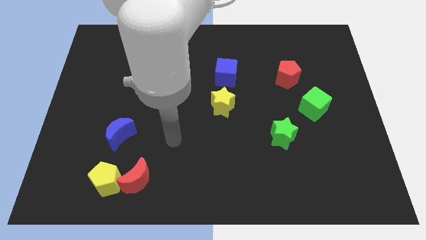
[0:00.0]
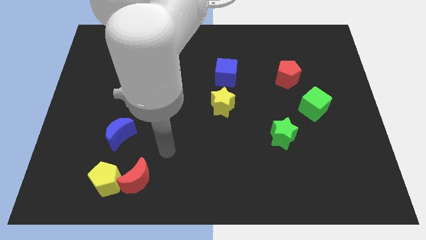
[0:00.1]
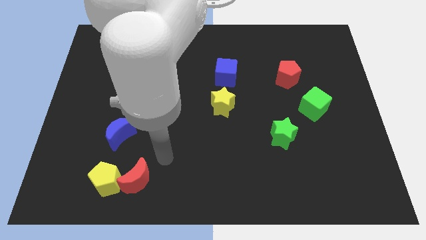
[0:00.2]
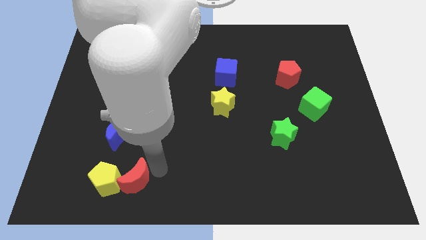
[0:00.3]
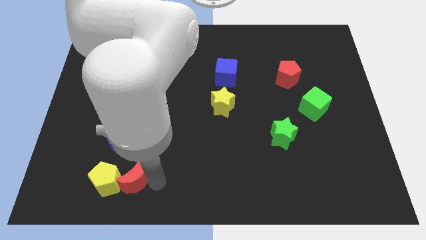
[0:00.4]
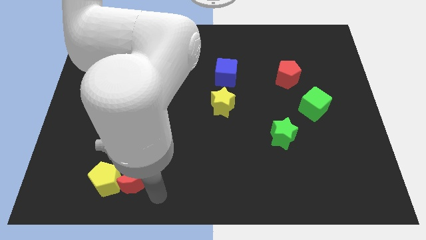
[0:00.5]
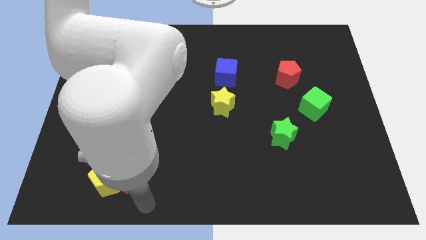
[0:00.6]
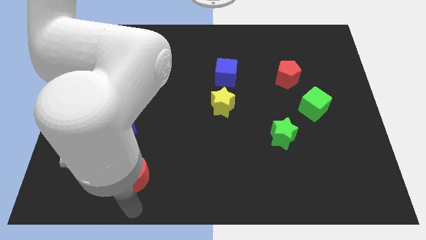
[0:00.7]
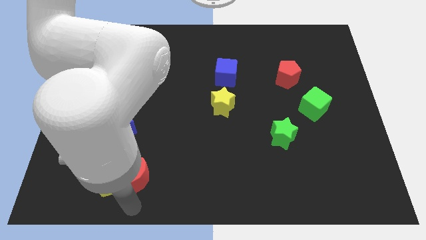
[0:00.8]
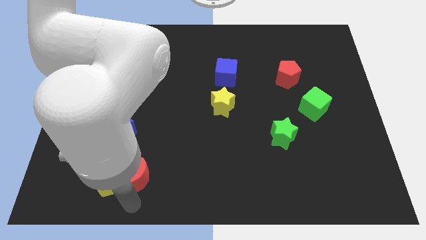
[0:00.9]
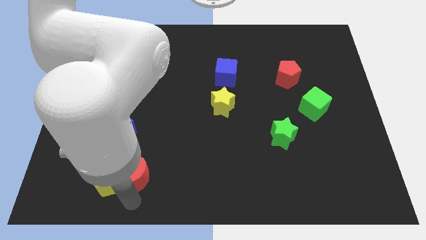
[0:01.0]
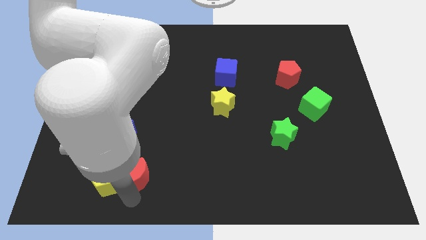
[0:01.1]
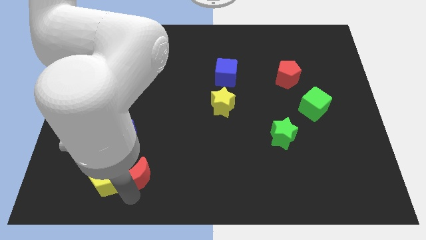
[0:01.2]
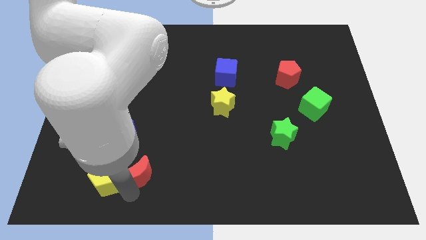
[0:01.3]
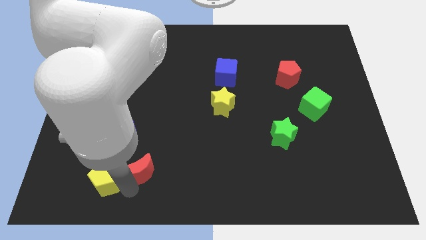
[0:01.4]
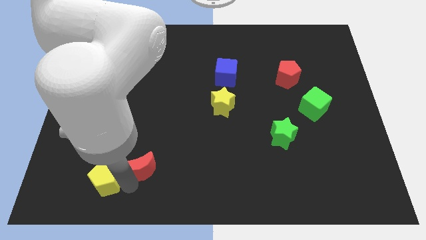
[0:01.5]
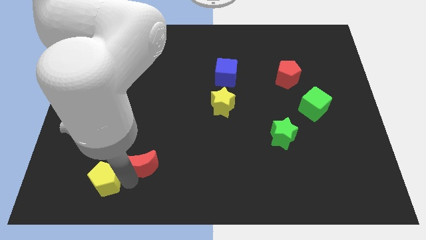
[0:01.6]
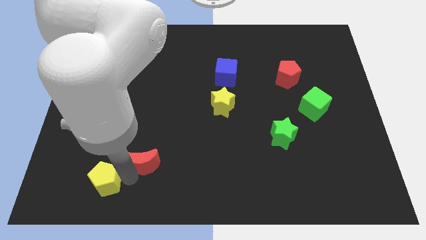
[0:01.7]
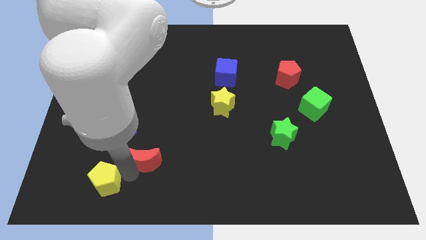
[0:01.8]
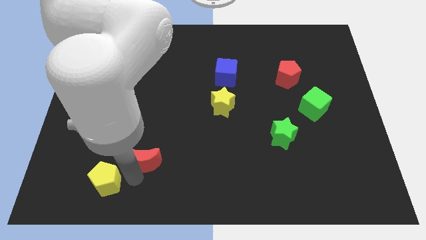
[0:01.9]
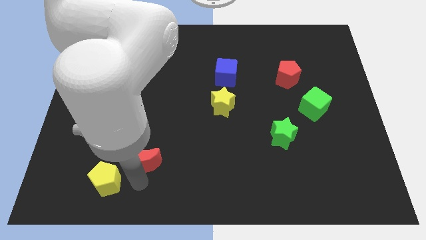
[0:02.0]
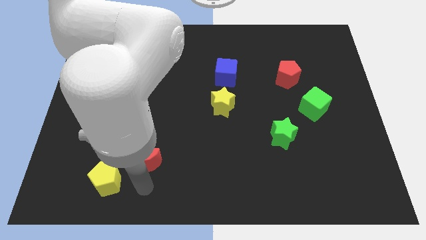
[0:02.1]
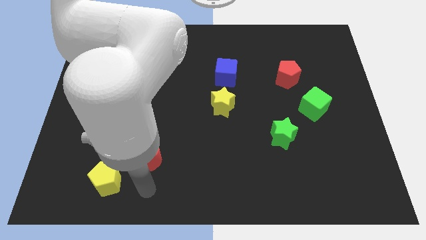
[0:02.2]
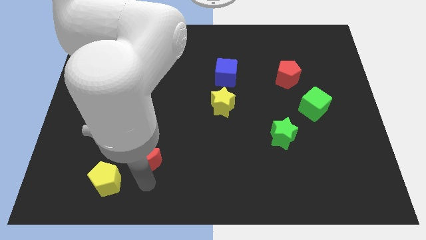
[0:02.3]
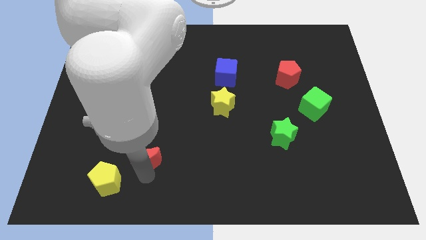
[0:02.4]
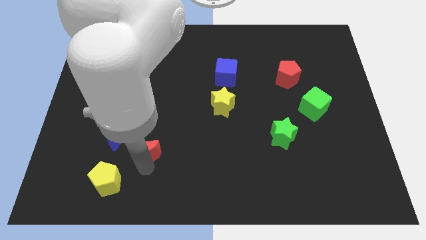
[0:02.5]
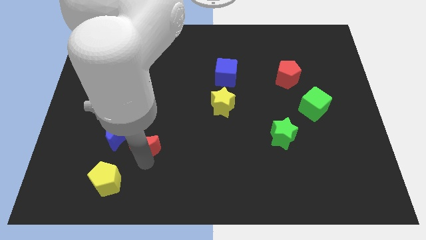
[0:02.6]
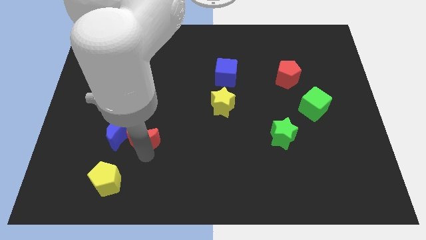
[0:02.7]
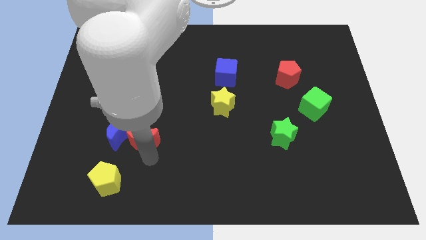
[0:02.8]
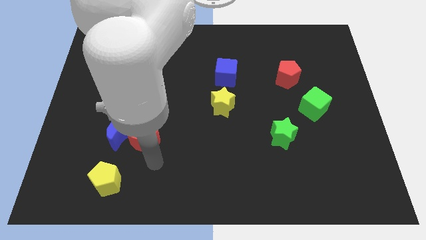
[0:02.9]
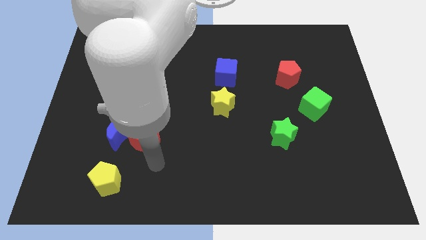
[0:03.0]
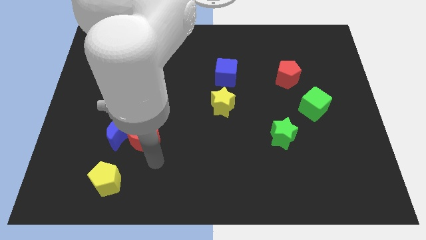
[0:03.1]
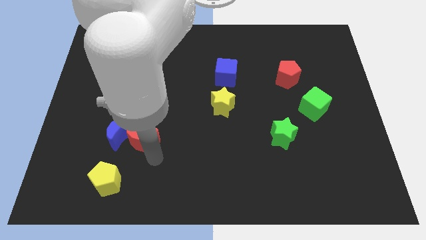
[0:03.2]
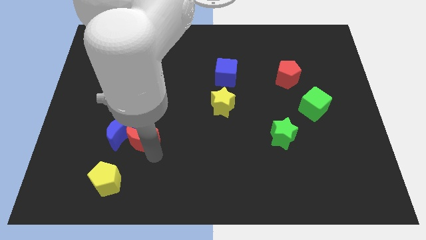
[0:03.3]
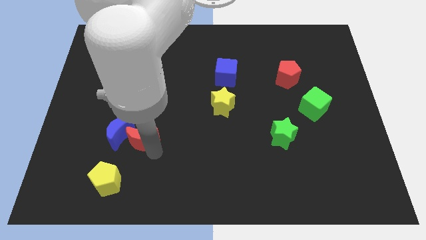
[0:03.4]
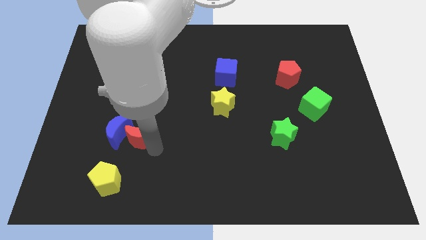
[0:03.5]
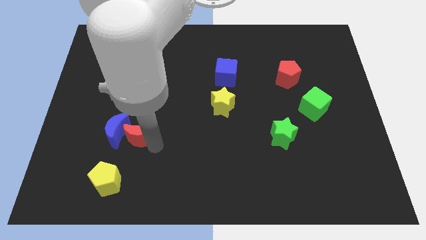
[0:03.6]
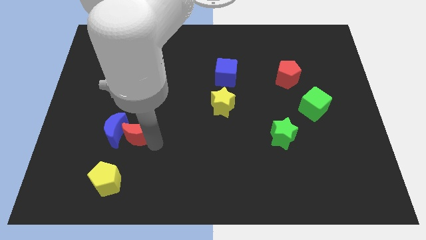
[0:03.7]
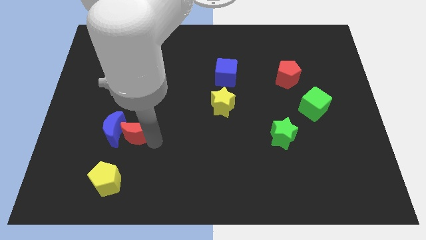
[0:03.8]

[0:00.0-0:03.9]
push the red moon slightly up and left diagonally

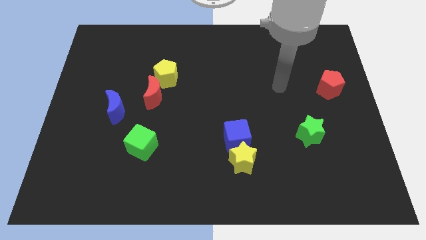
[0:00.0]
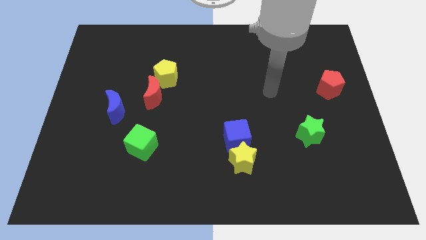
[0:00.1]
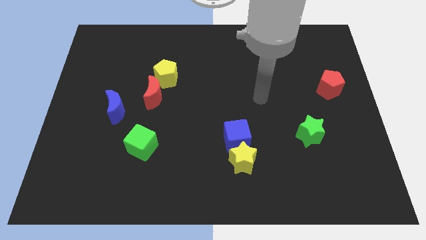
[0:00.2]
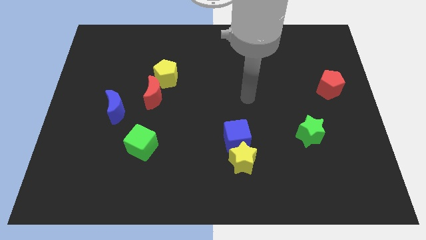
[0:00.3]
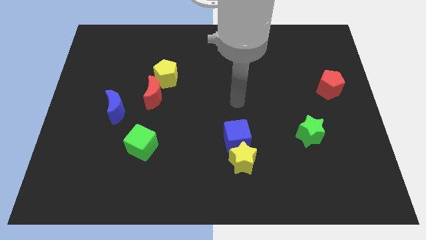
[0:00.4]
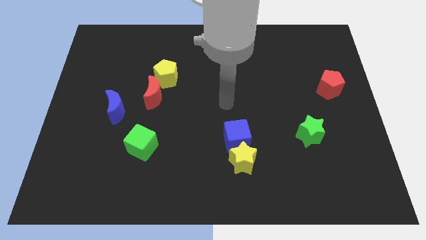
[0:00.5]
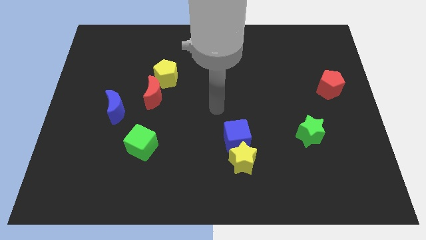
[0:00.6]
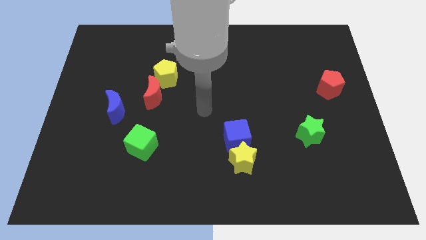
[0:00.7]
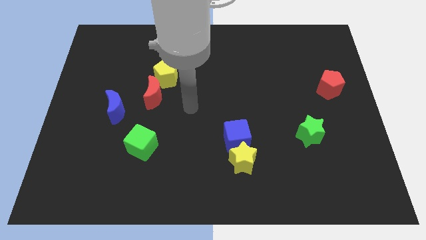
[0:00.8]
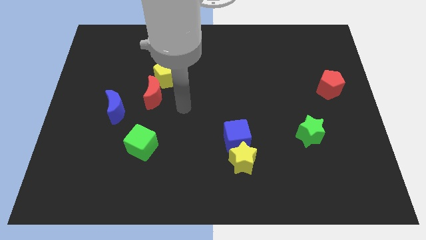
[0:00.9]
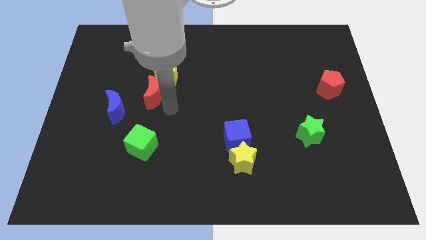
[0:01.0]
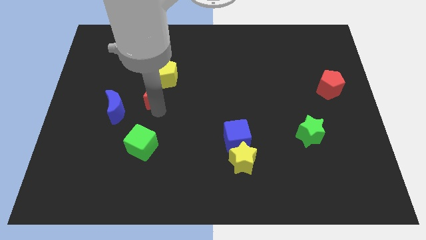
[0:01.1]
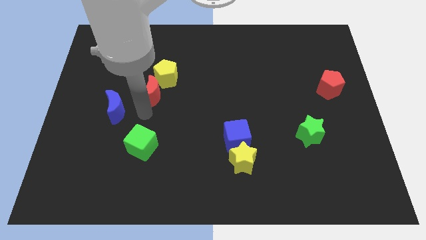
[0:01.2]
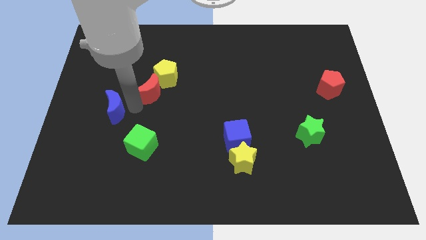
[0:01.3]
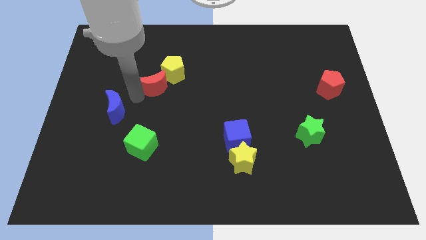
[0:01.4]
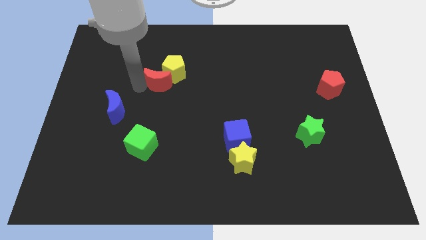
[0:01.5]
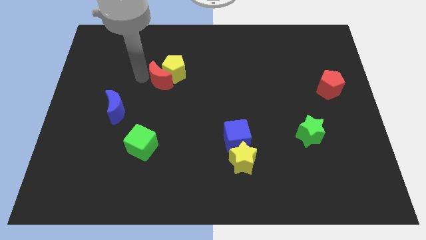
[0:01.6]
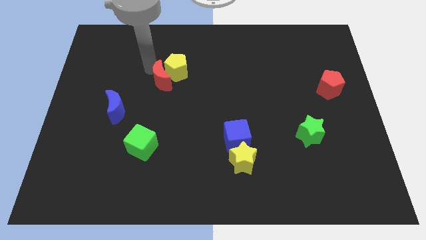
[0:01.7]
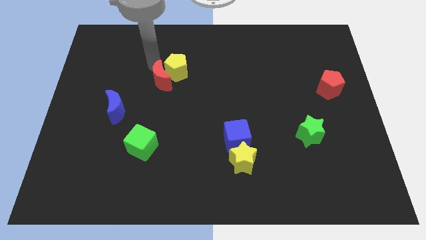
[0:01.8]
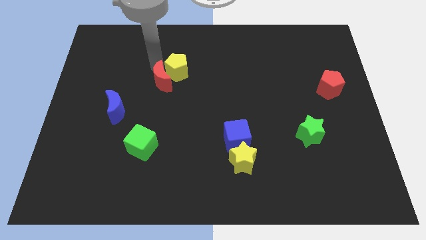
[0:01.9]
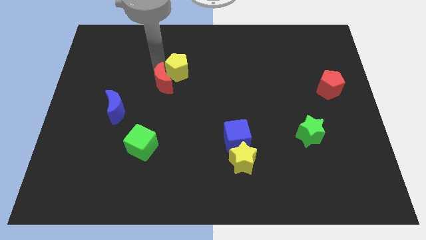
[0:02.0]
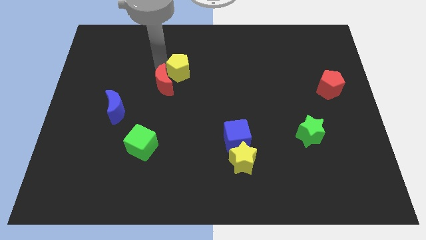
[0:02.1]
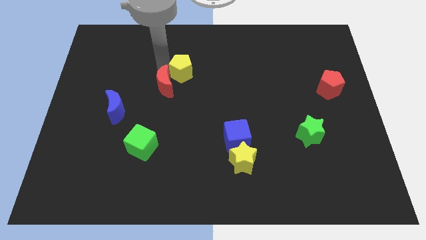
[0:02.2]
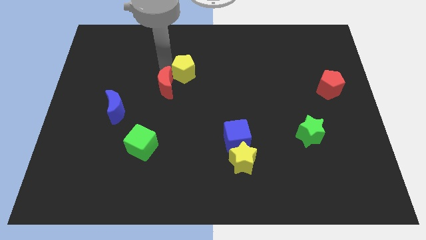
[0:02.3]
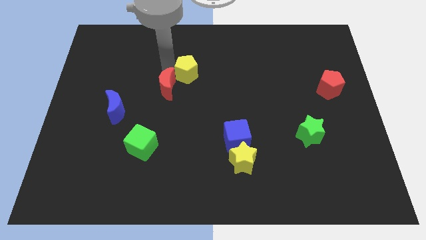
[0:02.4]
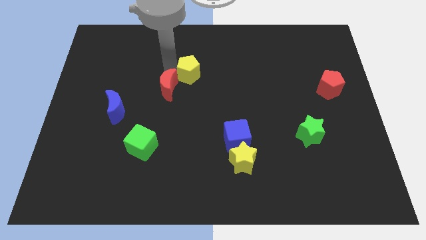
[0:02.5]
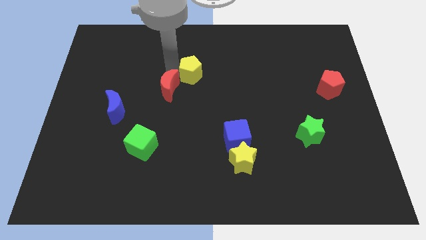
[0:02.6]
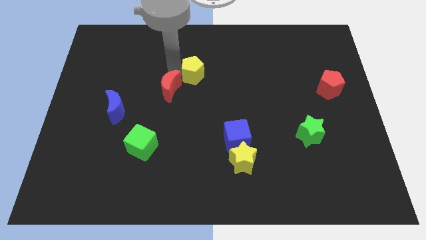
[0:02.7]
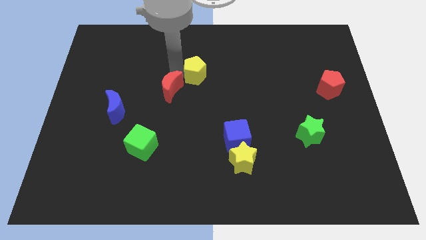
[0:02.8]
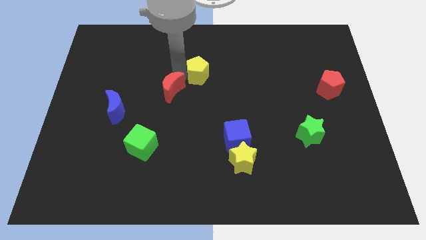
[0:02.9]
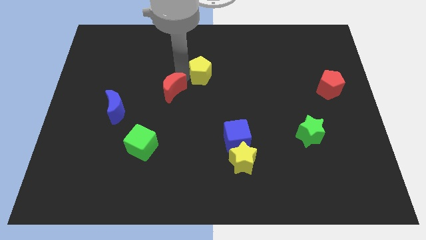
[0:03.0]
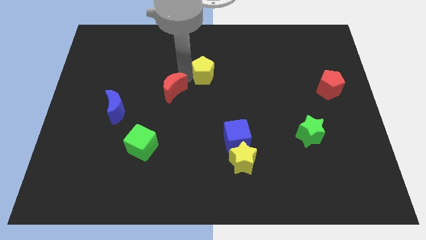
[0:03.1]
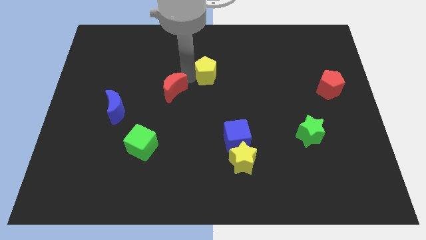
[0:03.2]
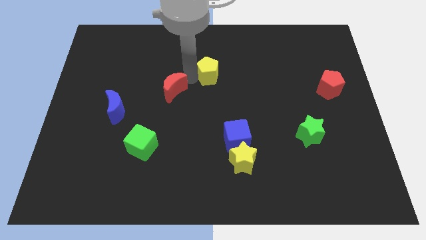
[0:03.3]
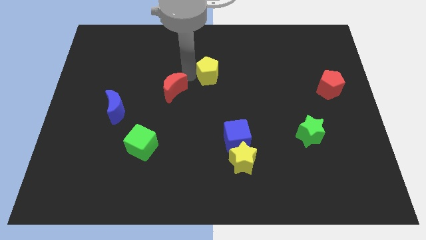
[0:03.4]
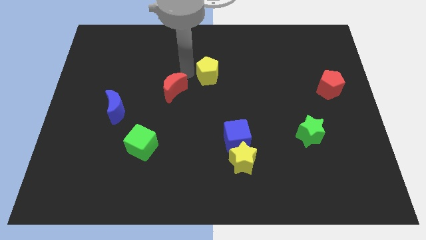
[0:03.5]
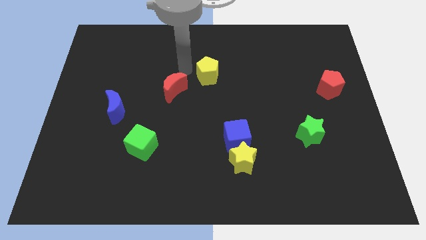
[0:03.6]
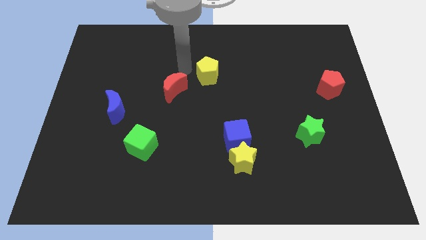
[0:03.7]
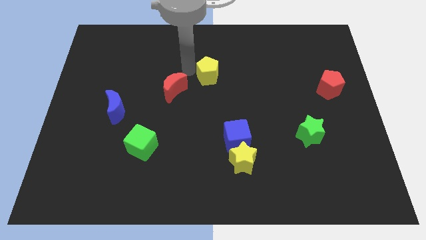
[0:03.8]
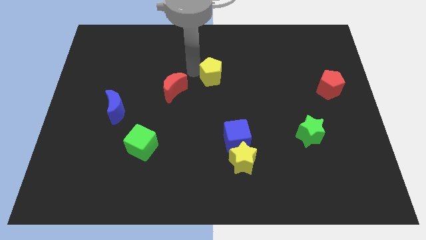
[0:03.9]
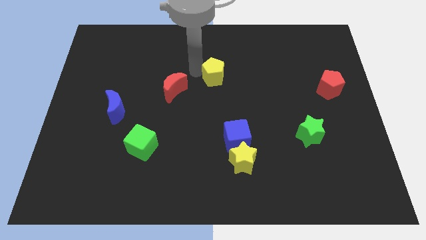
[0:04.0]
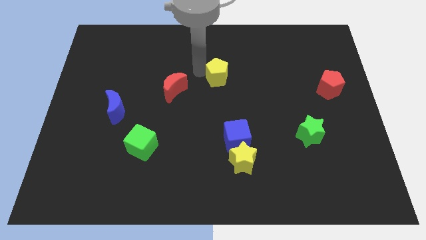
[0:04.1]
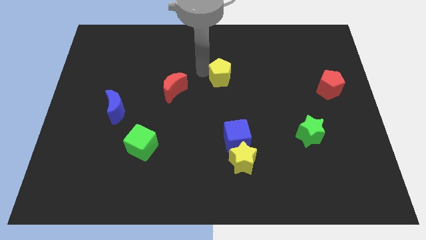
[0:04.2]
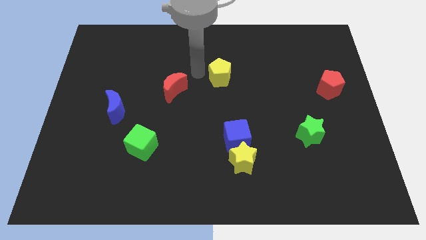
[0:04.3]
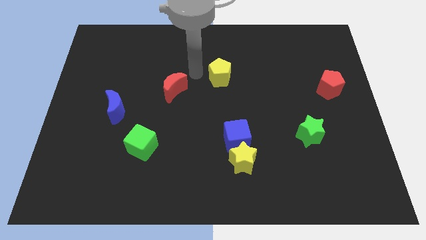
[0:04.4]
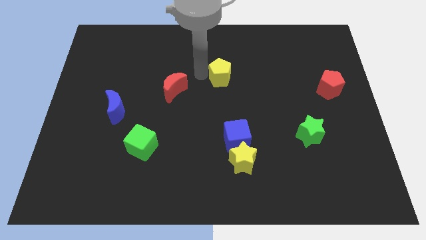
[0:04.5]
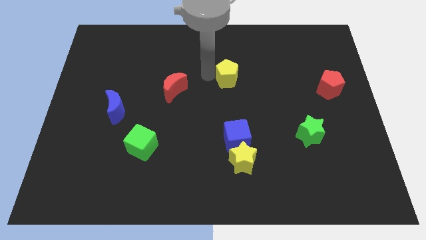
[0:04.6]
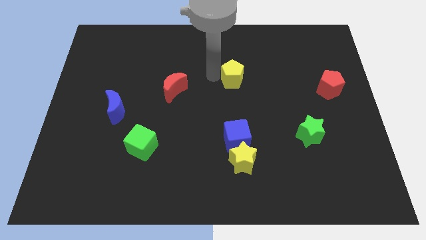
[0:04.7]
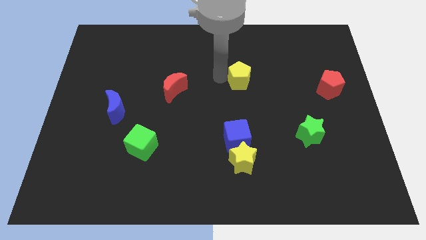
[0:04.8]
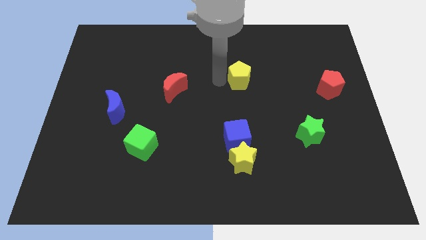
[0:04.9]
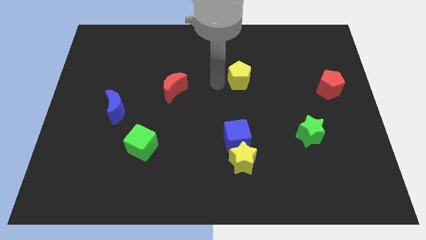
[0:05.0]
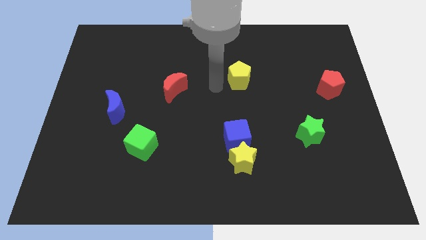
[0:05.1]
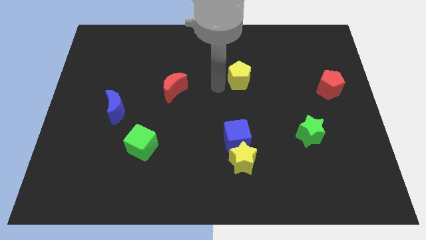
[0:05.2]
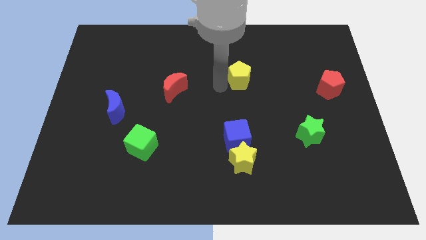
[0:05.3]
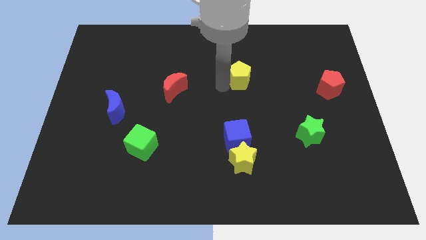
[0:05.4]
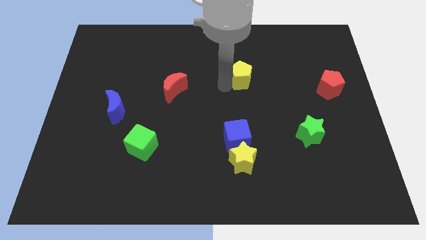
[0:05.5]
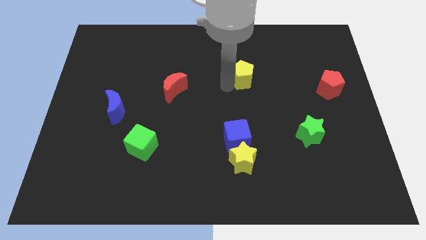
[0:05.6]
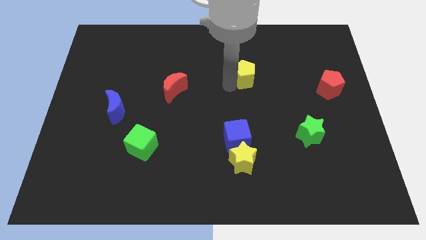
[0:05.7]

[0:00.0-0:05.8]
slide the yellow pentagon right
